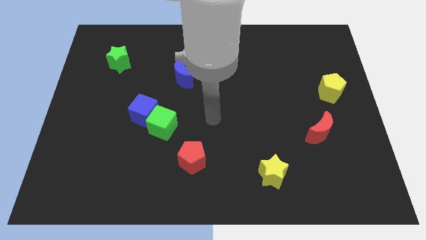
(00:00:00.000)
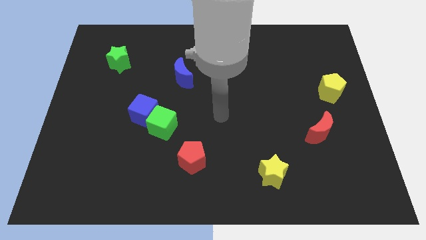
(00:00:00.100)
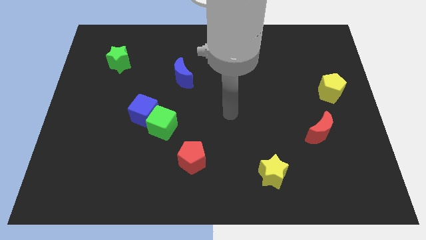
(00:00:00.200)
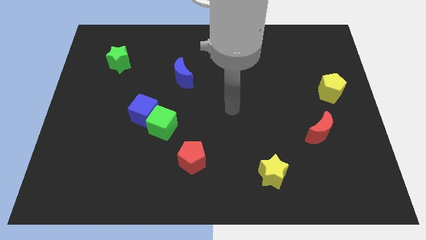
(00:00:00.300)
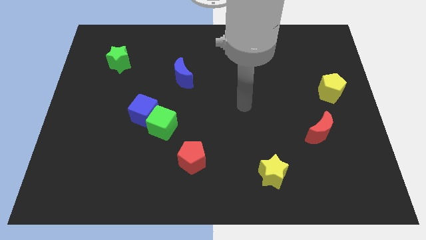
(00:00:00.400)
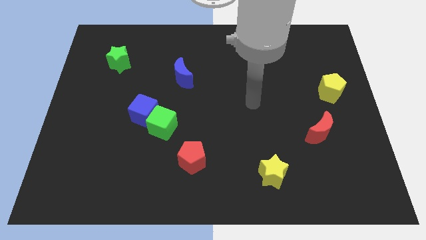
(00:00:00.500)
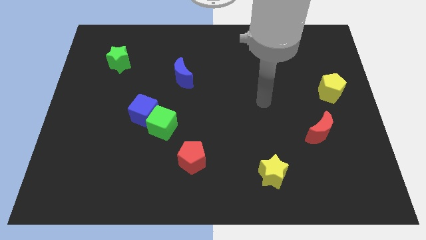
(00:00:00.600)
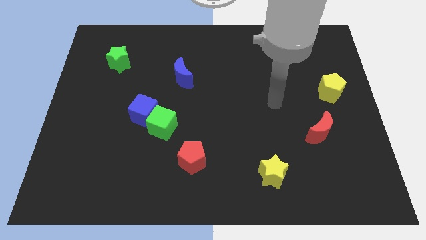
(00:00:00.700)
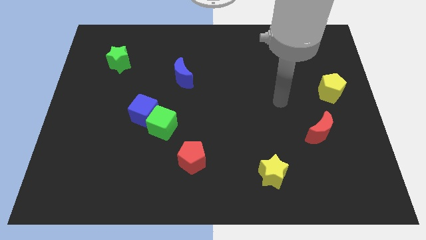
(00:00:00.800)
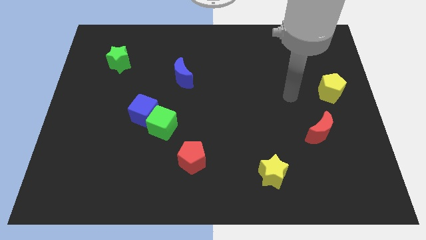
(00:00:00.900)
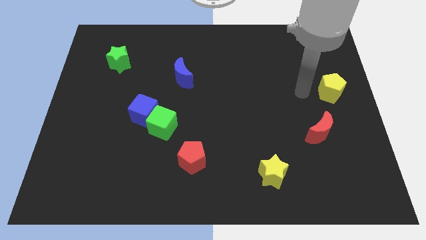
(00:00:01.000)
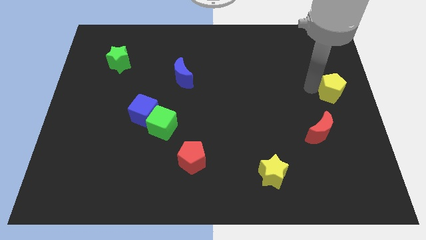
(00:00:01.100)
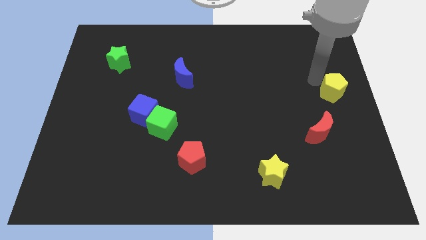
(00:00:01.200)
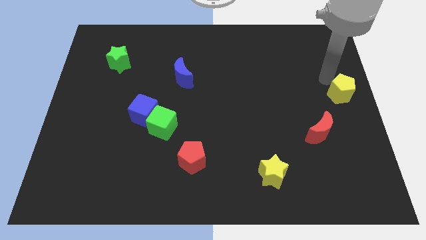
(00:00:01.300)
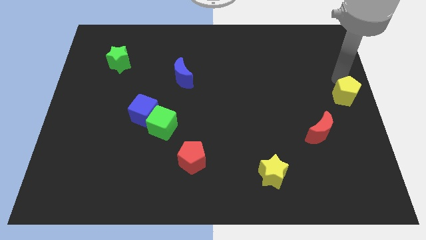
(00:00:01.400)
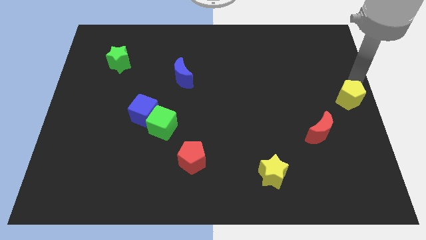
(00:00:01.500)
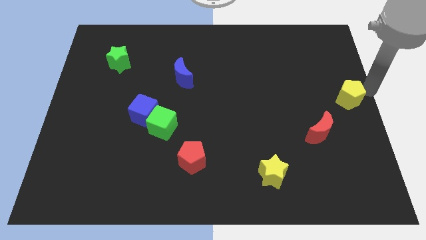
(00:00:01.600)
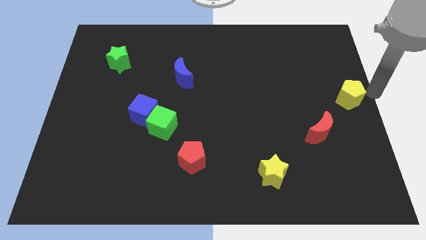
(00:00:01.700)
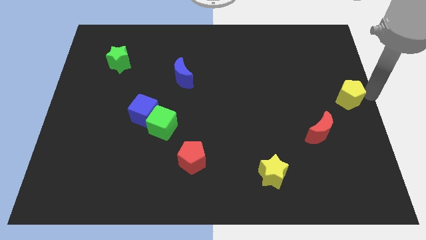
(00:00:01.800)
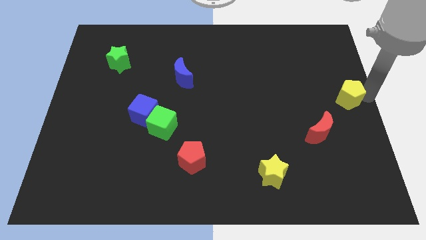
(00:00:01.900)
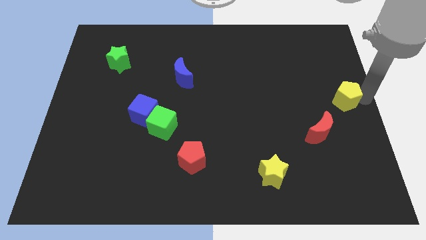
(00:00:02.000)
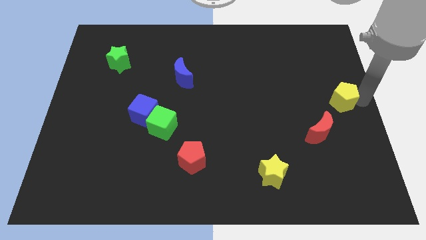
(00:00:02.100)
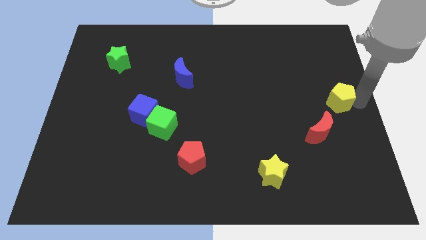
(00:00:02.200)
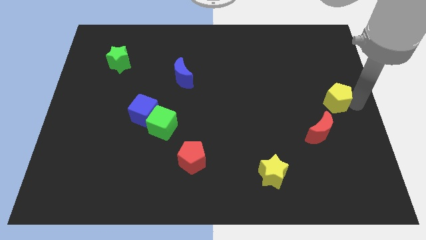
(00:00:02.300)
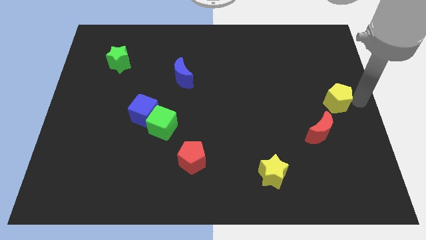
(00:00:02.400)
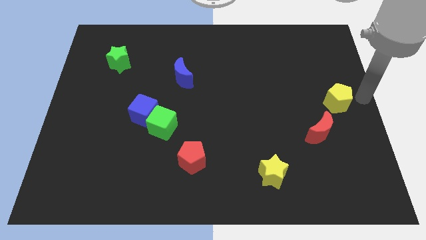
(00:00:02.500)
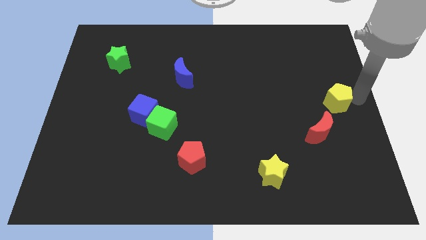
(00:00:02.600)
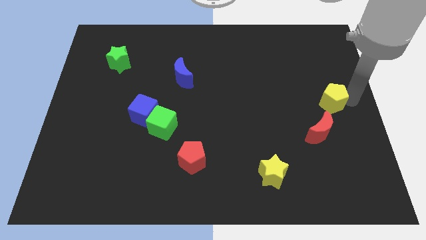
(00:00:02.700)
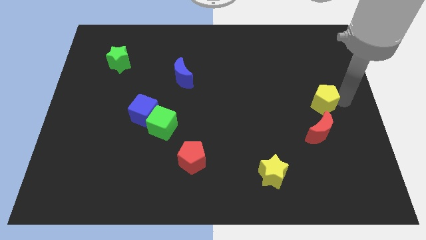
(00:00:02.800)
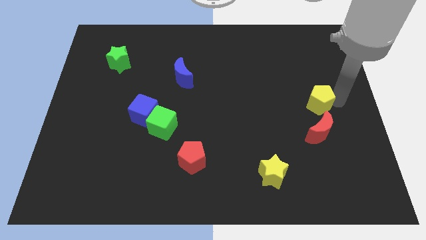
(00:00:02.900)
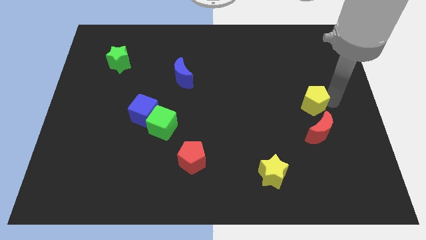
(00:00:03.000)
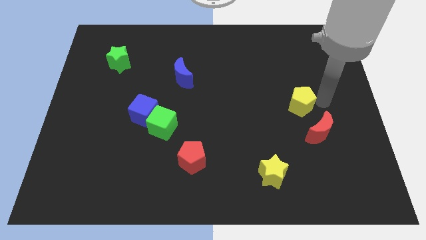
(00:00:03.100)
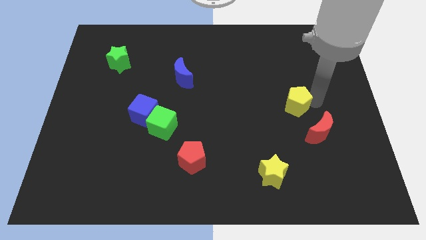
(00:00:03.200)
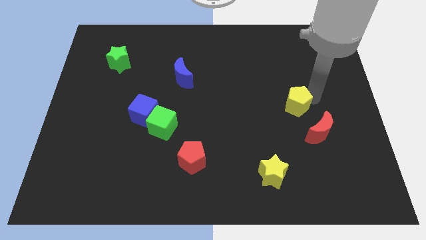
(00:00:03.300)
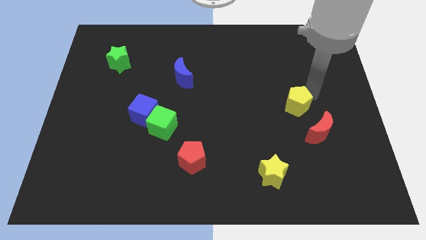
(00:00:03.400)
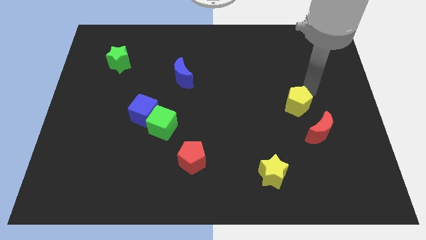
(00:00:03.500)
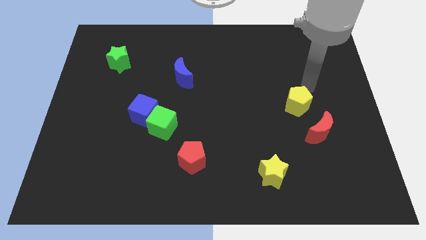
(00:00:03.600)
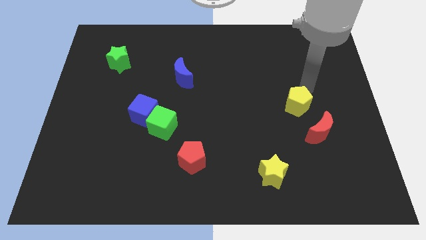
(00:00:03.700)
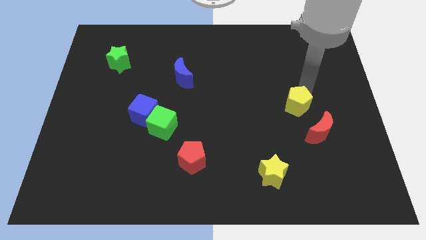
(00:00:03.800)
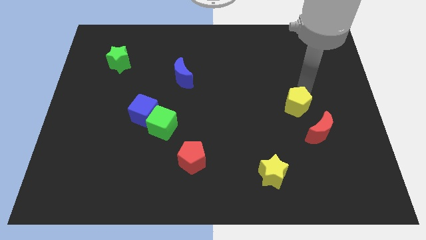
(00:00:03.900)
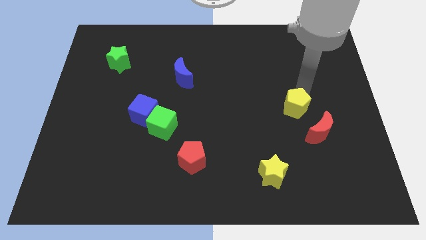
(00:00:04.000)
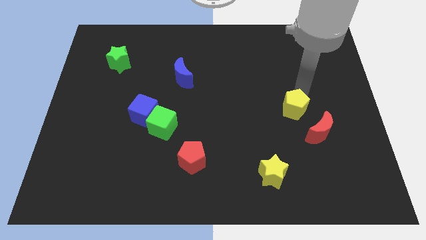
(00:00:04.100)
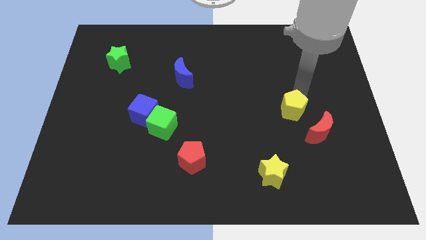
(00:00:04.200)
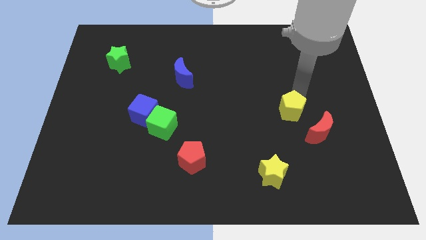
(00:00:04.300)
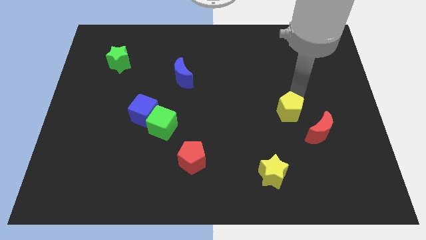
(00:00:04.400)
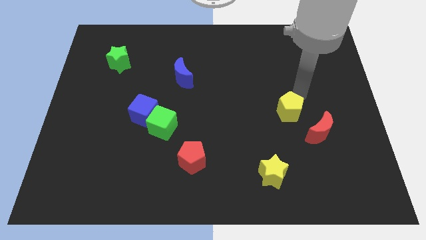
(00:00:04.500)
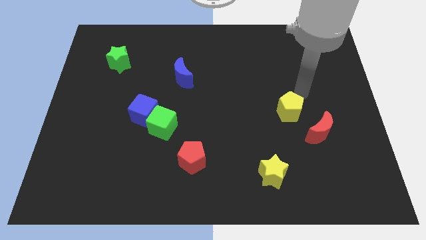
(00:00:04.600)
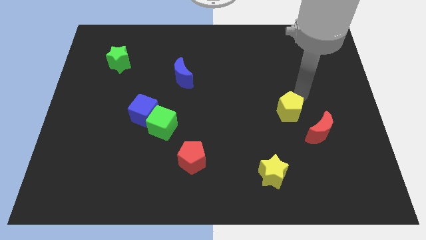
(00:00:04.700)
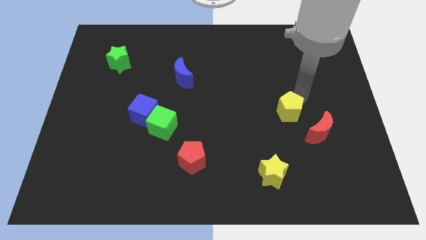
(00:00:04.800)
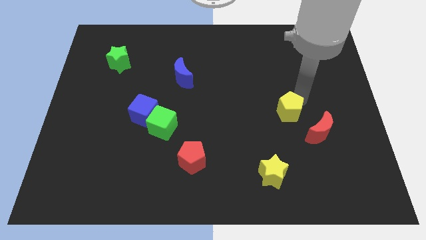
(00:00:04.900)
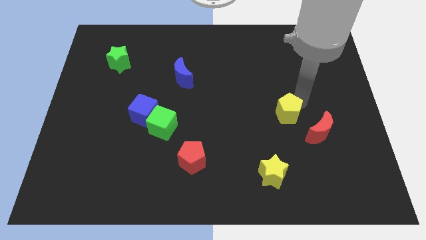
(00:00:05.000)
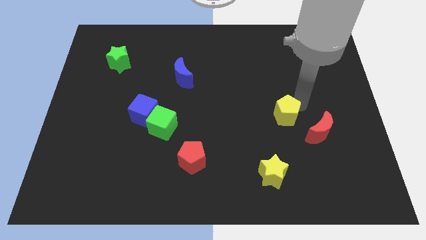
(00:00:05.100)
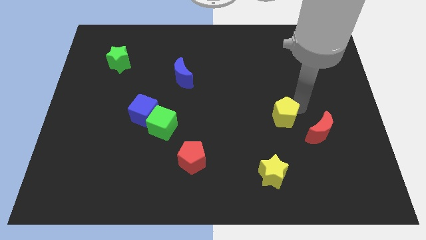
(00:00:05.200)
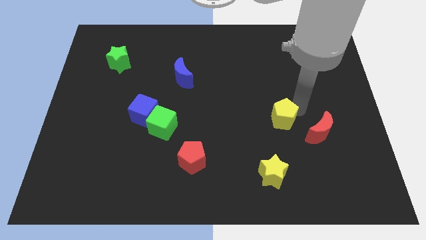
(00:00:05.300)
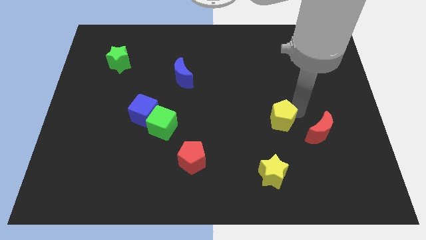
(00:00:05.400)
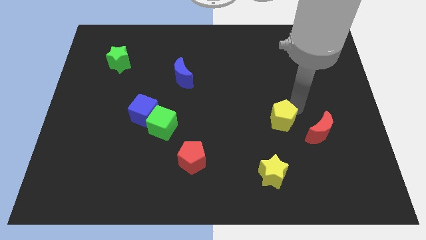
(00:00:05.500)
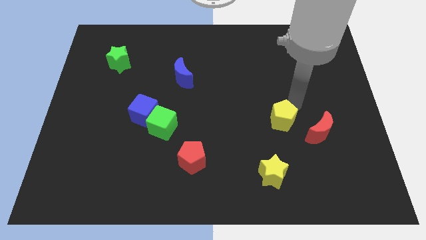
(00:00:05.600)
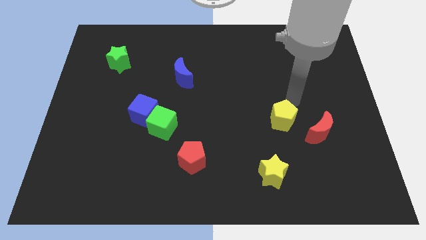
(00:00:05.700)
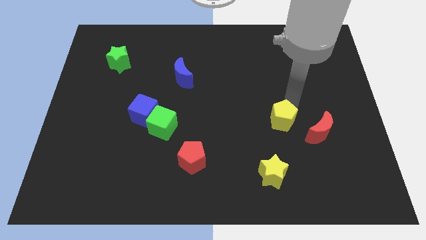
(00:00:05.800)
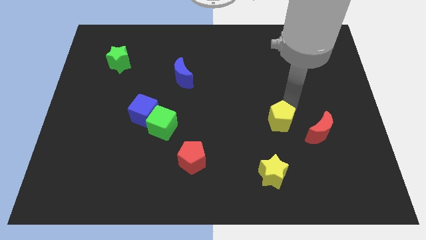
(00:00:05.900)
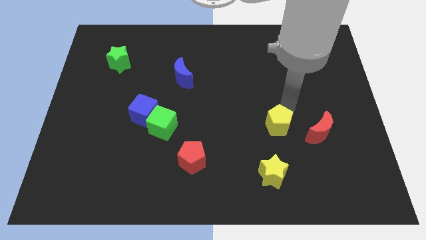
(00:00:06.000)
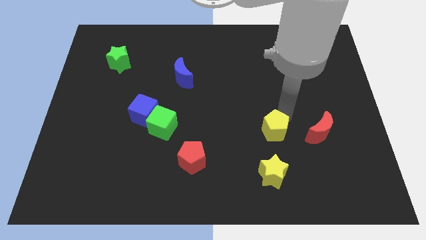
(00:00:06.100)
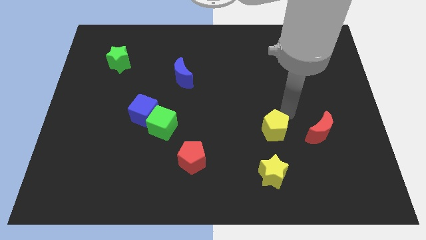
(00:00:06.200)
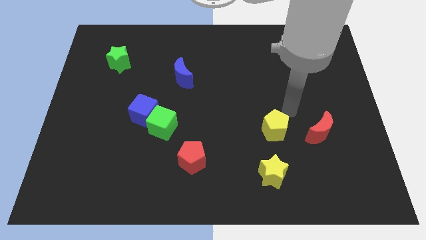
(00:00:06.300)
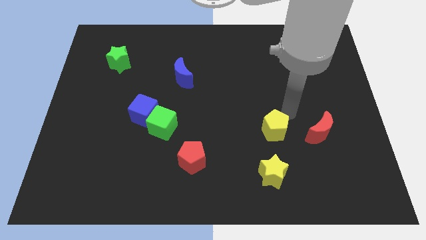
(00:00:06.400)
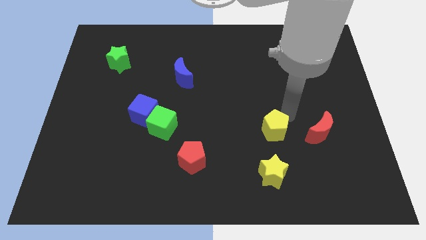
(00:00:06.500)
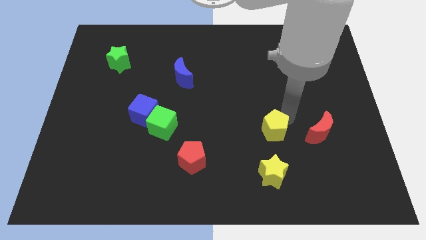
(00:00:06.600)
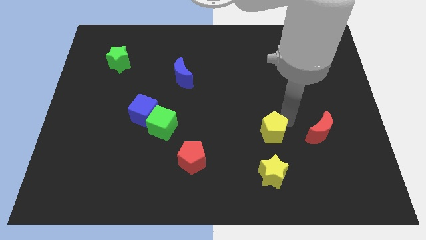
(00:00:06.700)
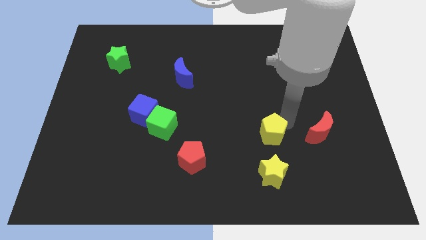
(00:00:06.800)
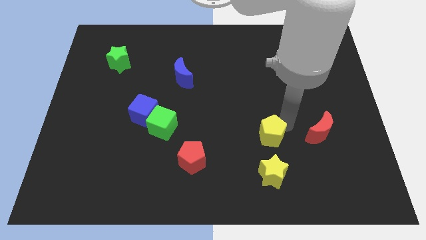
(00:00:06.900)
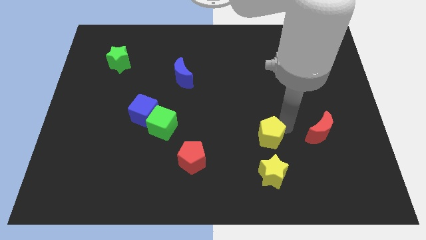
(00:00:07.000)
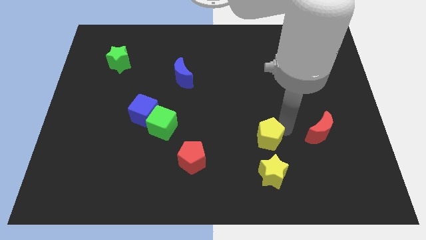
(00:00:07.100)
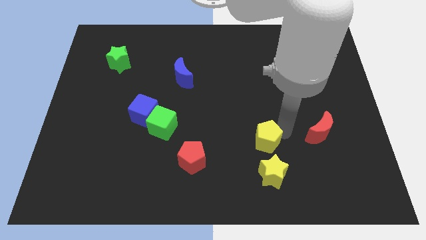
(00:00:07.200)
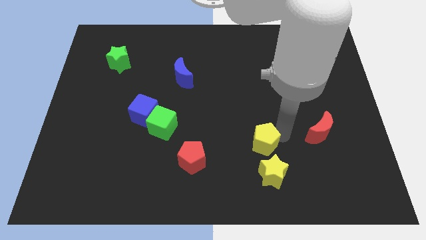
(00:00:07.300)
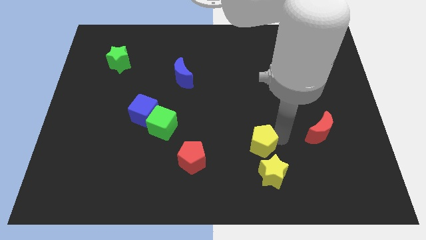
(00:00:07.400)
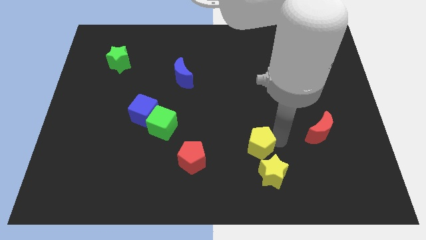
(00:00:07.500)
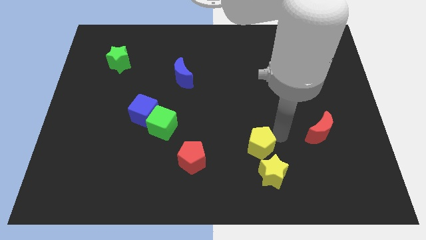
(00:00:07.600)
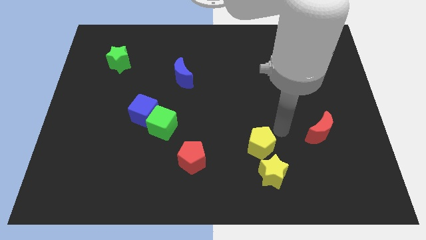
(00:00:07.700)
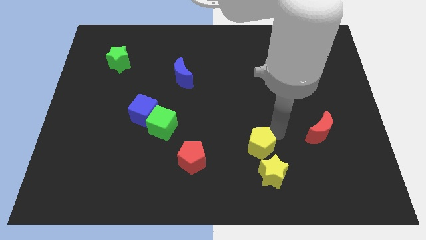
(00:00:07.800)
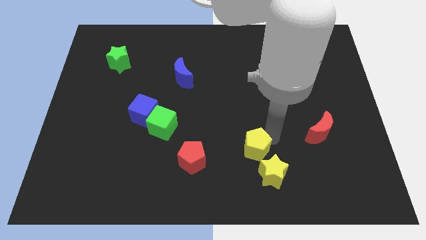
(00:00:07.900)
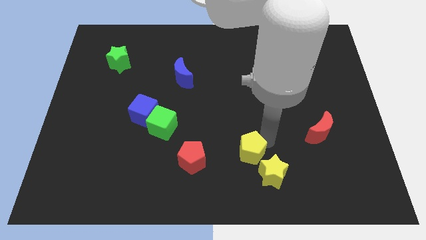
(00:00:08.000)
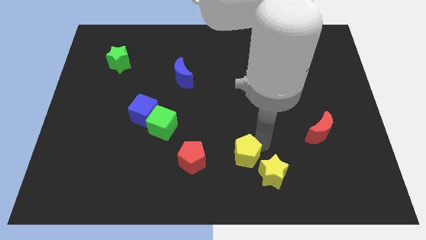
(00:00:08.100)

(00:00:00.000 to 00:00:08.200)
move the yellow pentagon left of the yellow star
